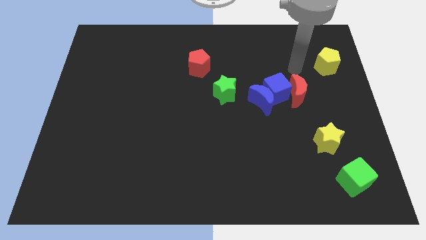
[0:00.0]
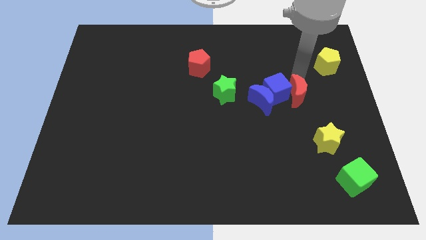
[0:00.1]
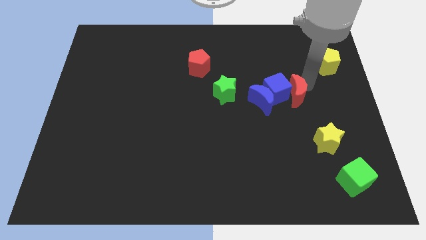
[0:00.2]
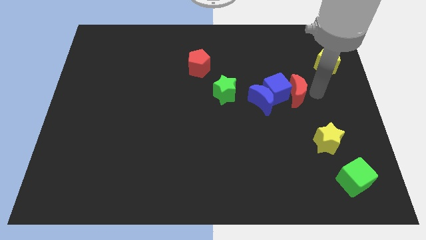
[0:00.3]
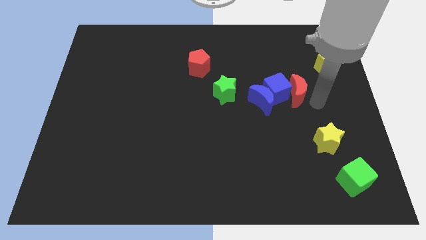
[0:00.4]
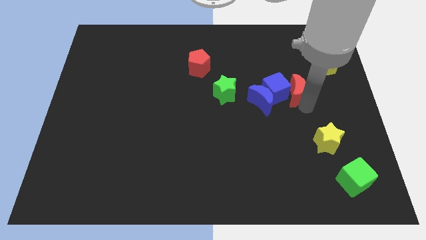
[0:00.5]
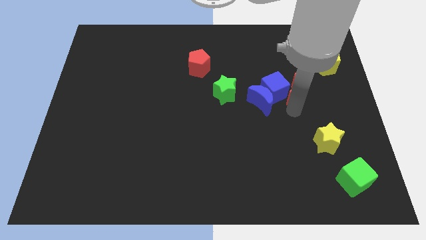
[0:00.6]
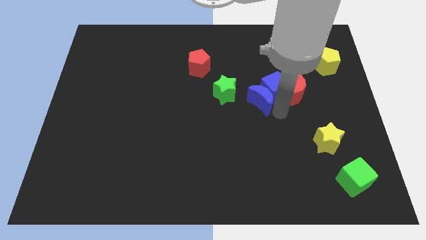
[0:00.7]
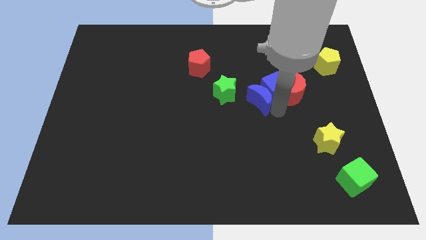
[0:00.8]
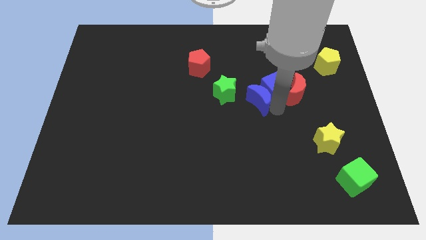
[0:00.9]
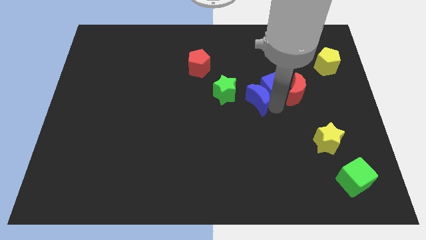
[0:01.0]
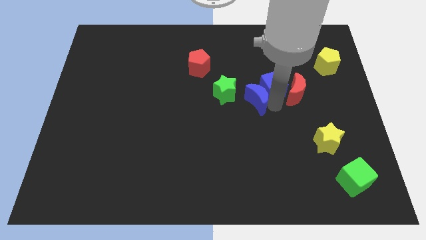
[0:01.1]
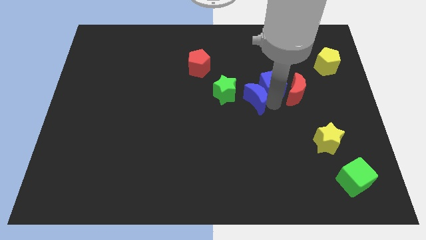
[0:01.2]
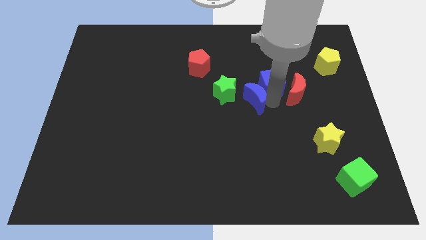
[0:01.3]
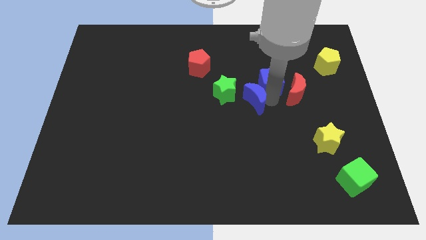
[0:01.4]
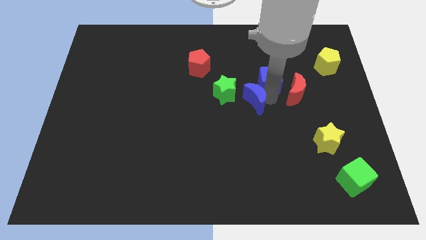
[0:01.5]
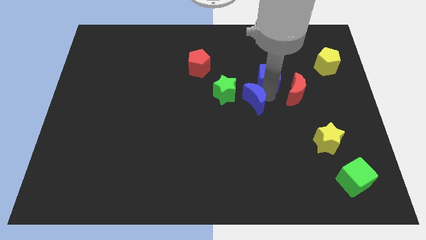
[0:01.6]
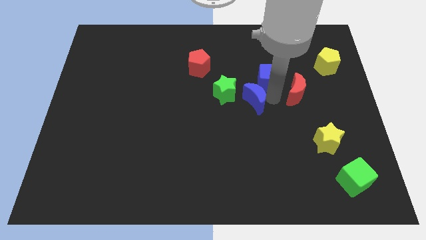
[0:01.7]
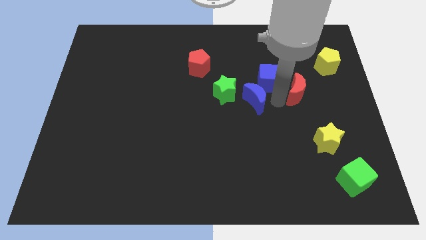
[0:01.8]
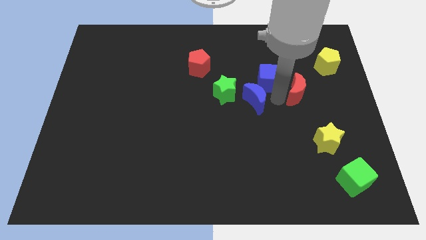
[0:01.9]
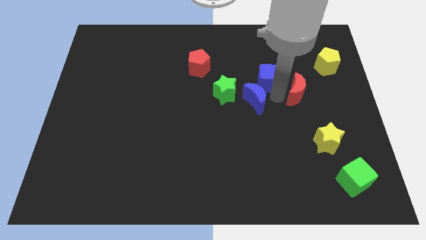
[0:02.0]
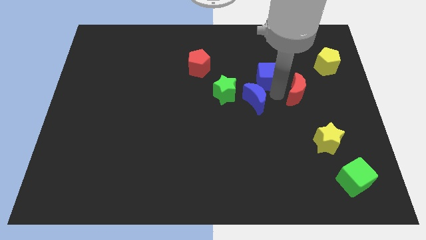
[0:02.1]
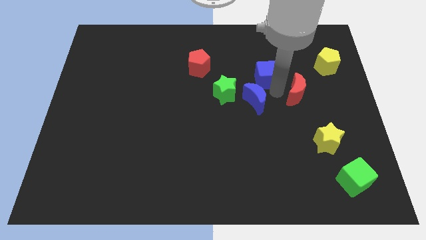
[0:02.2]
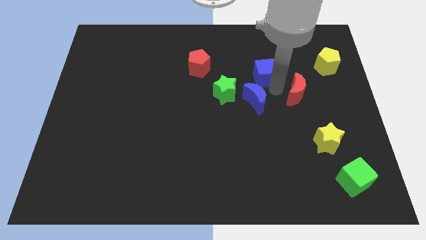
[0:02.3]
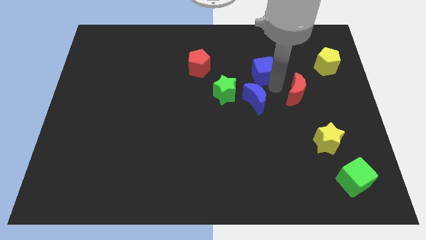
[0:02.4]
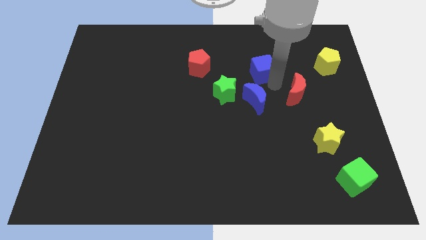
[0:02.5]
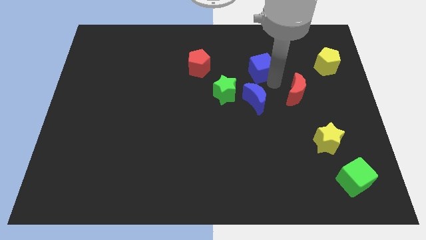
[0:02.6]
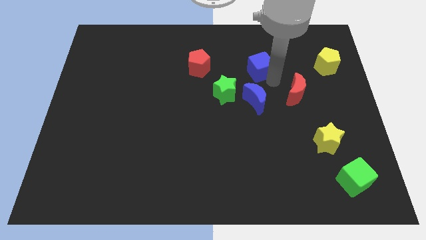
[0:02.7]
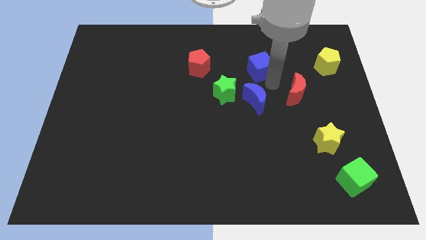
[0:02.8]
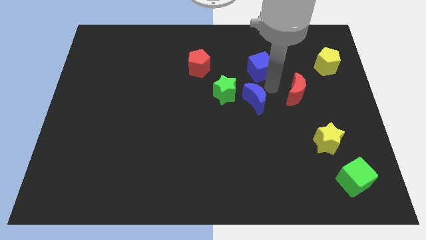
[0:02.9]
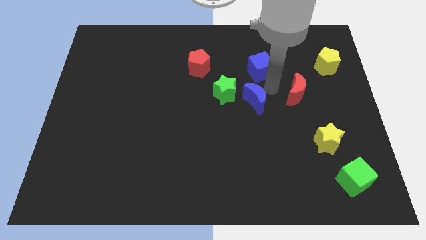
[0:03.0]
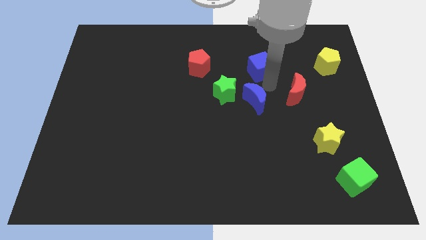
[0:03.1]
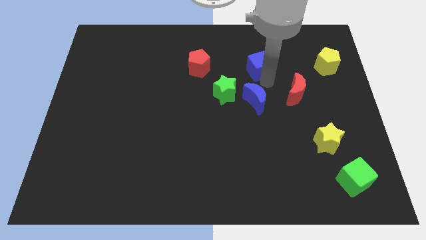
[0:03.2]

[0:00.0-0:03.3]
move the blue cube away from the blue moon and red moon

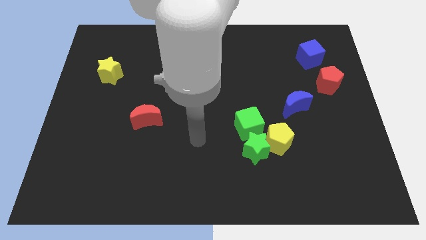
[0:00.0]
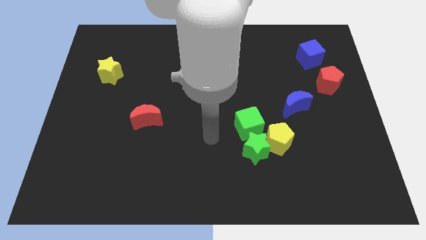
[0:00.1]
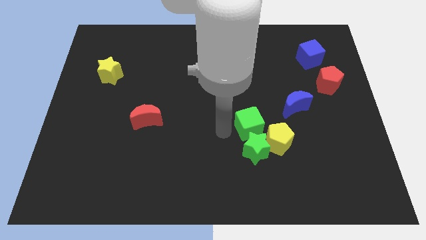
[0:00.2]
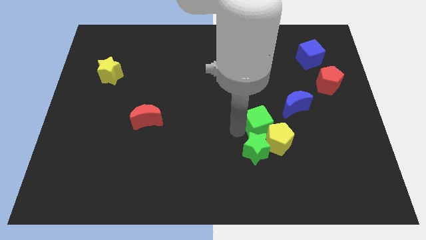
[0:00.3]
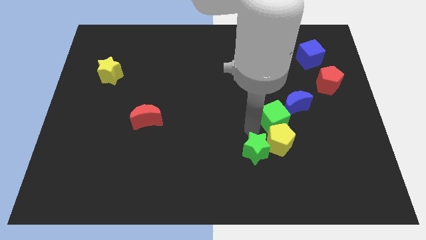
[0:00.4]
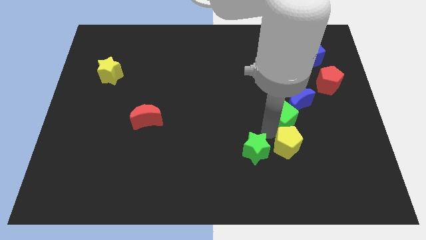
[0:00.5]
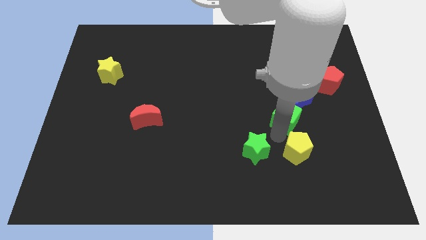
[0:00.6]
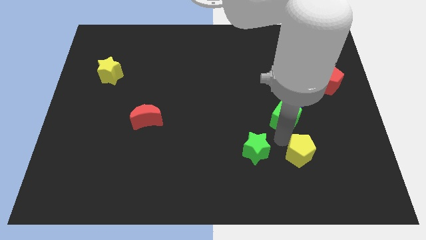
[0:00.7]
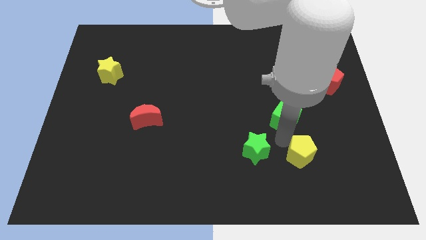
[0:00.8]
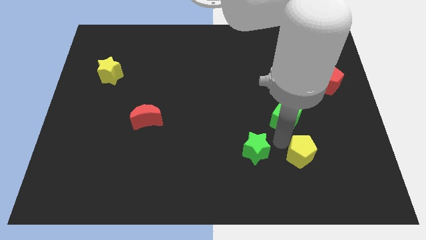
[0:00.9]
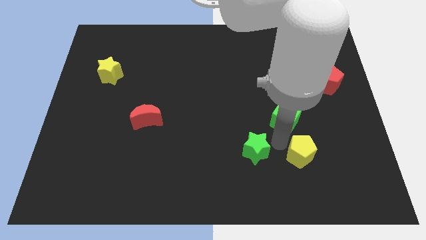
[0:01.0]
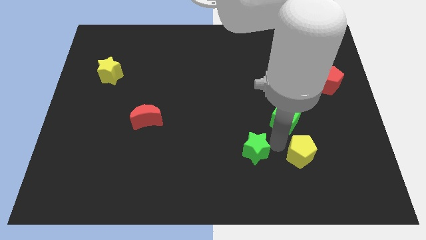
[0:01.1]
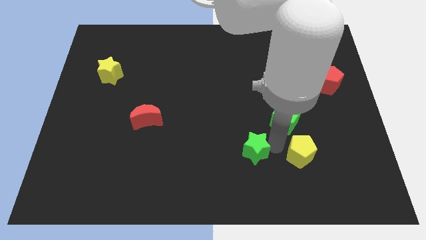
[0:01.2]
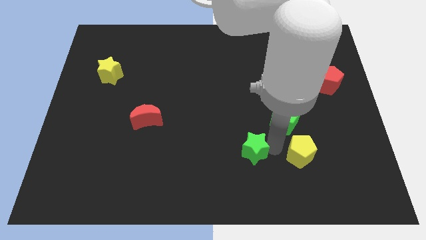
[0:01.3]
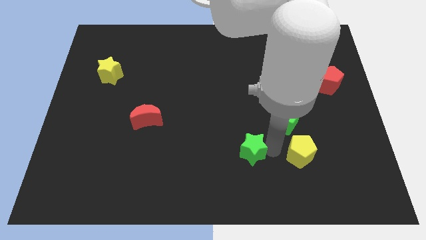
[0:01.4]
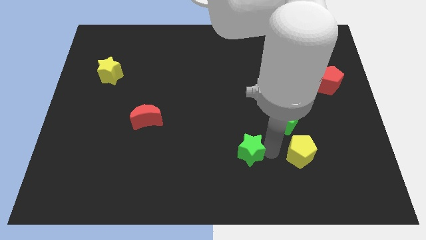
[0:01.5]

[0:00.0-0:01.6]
pull the green star apart from the yellow pentagon and green cube

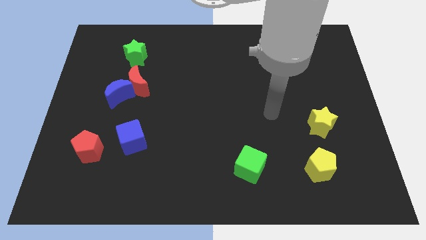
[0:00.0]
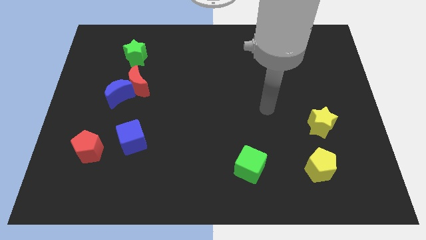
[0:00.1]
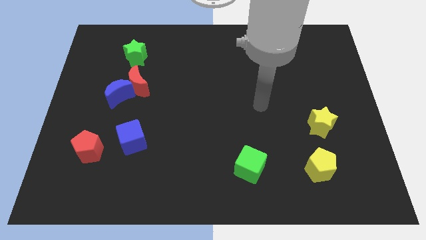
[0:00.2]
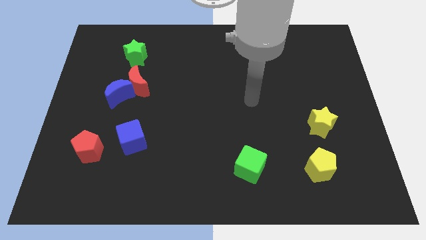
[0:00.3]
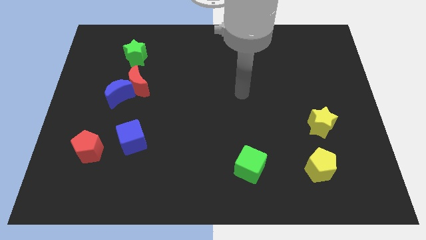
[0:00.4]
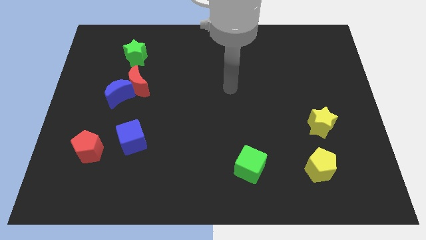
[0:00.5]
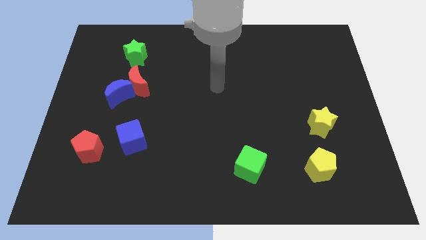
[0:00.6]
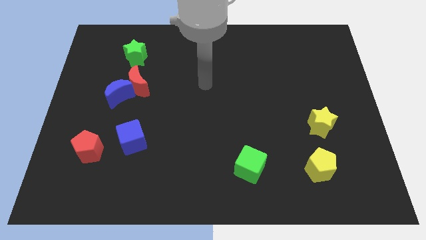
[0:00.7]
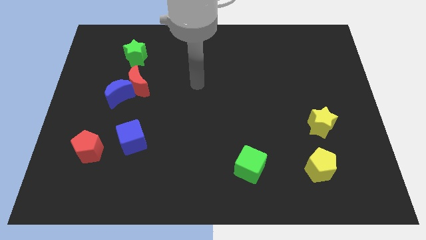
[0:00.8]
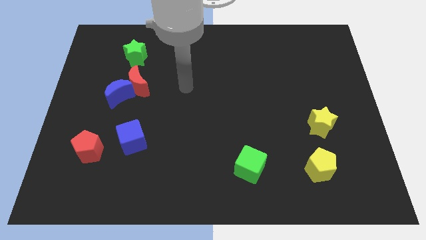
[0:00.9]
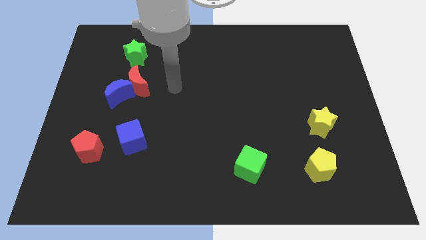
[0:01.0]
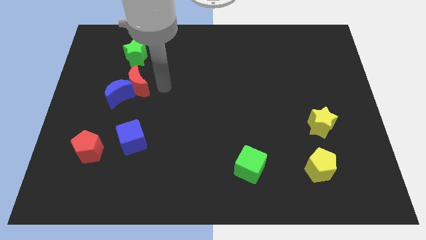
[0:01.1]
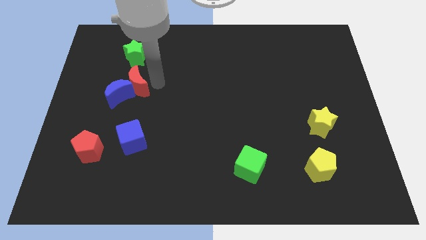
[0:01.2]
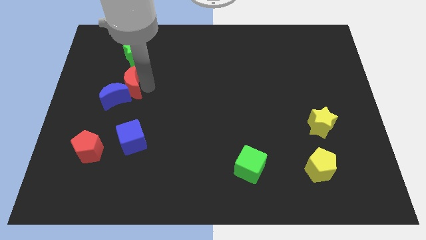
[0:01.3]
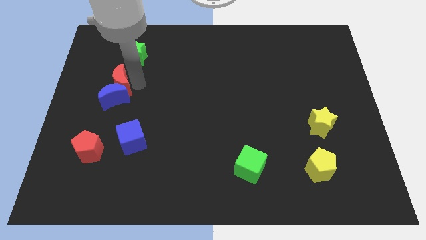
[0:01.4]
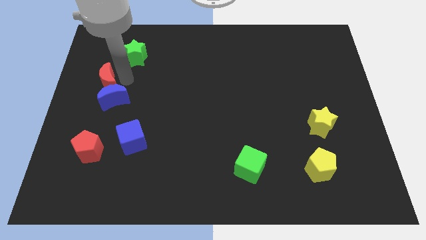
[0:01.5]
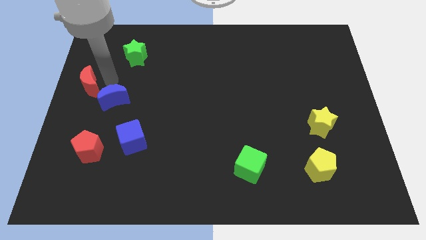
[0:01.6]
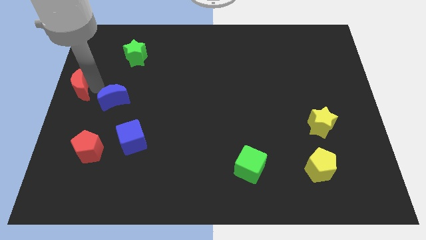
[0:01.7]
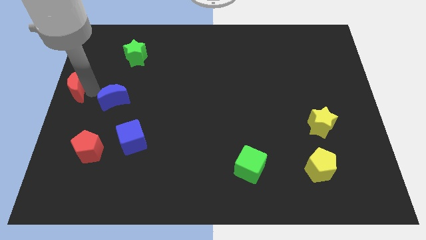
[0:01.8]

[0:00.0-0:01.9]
separate the blue moon from the red moon

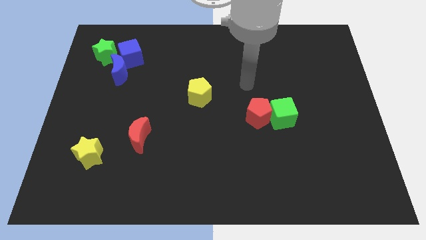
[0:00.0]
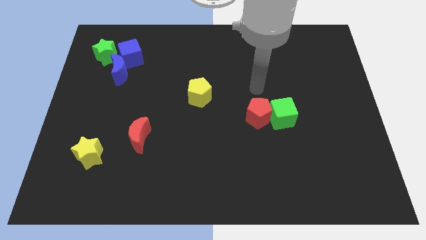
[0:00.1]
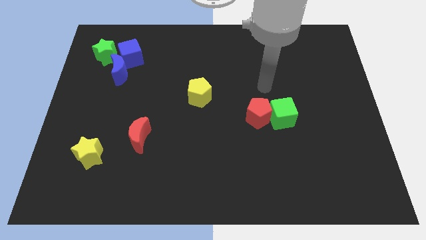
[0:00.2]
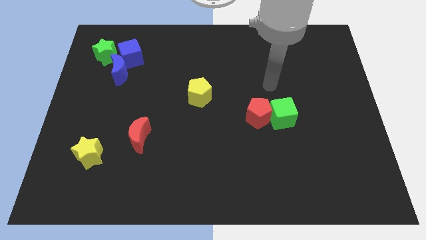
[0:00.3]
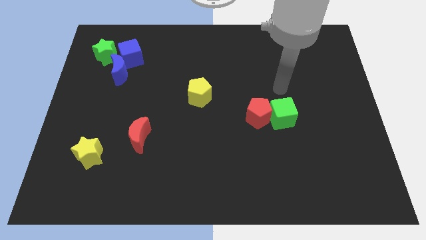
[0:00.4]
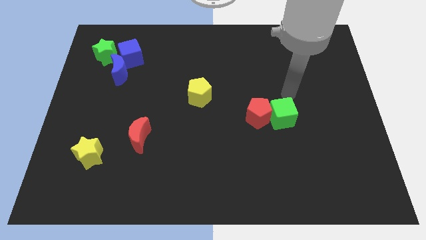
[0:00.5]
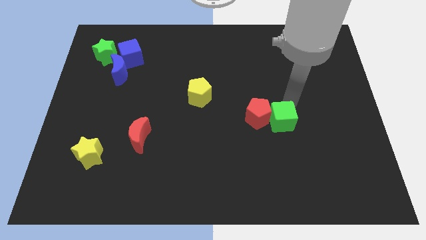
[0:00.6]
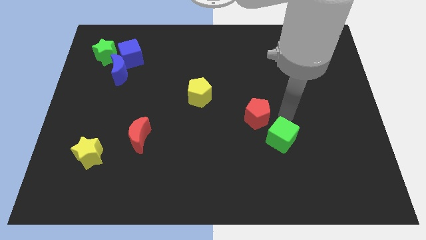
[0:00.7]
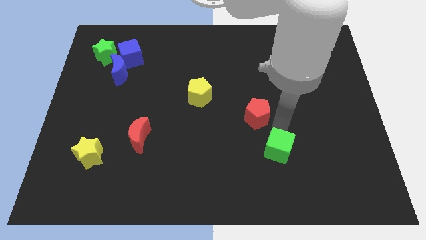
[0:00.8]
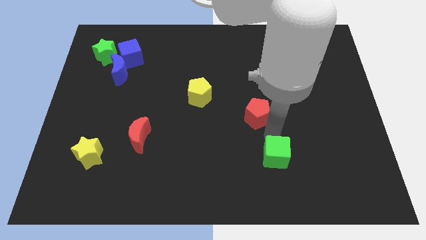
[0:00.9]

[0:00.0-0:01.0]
pull the red pentagon apart from the green cube

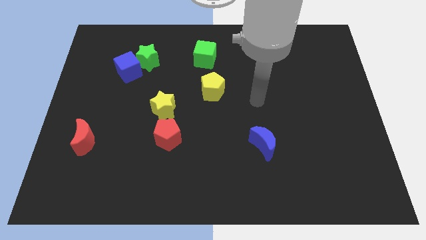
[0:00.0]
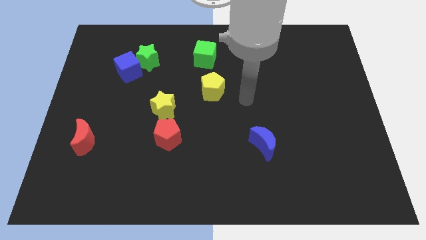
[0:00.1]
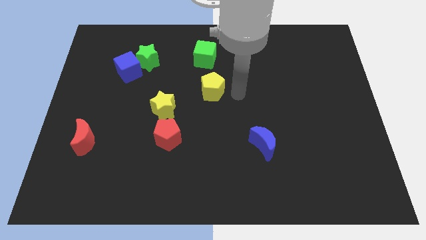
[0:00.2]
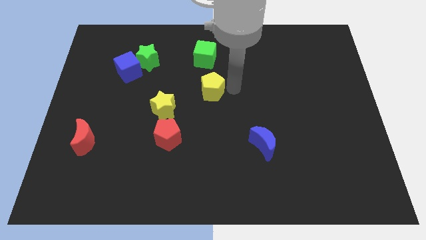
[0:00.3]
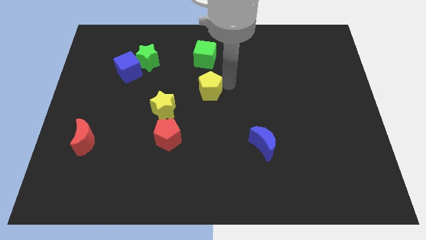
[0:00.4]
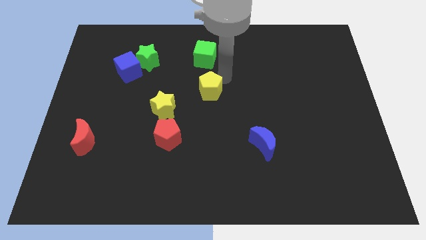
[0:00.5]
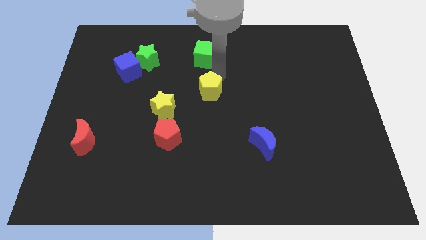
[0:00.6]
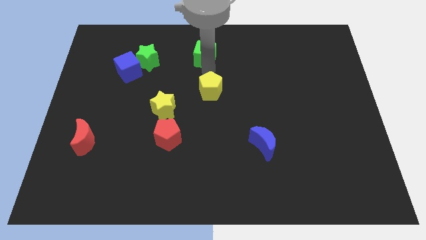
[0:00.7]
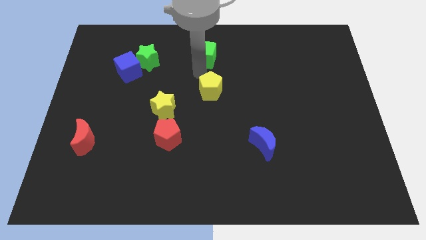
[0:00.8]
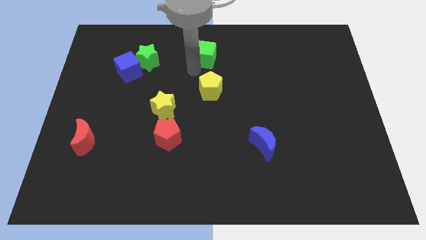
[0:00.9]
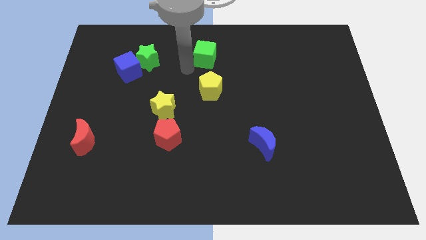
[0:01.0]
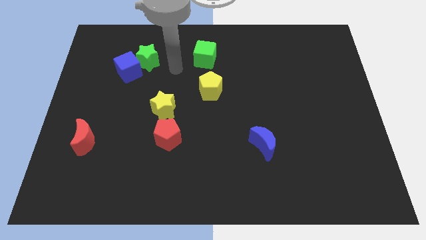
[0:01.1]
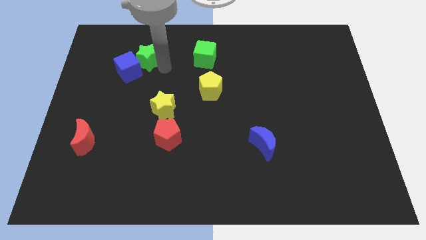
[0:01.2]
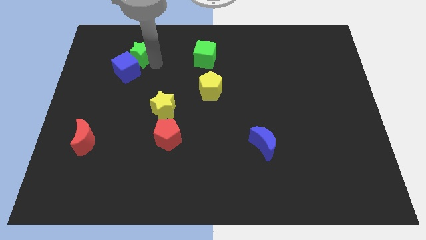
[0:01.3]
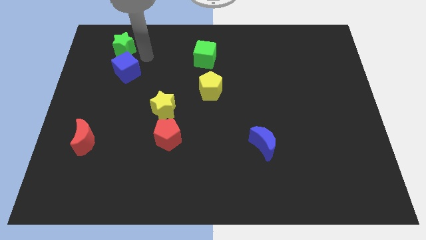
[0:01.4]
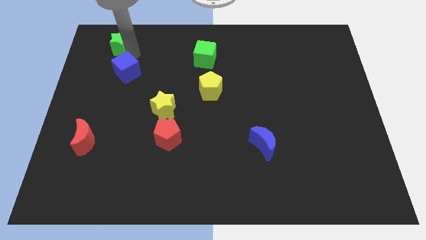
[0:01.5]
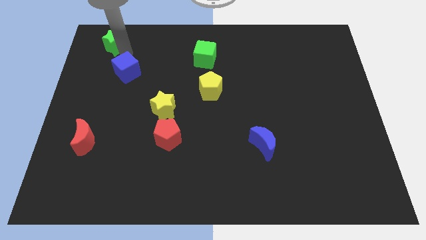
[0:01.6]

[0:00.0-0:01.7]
separate the blue cube from the green star
